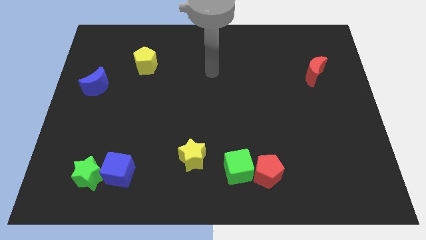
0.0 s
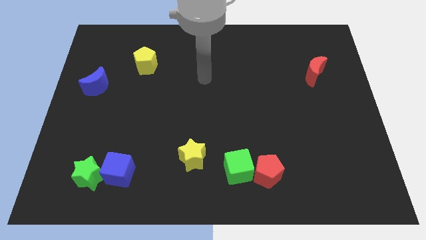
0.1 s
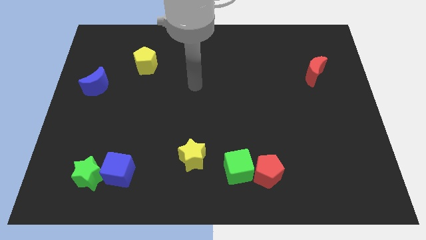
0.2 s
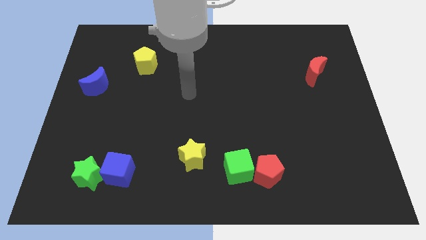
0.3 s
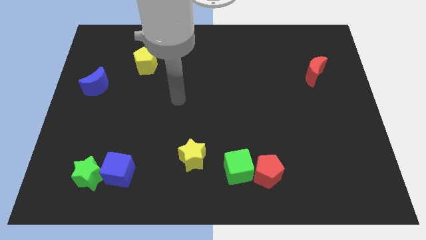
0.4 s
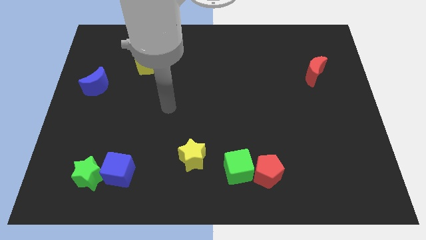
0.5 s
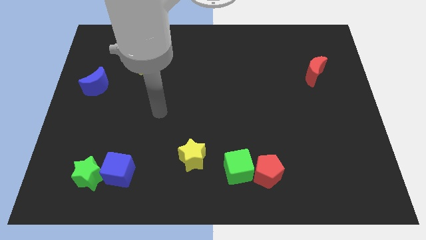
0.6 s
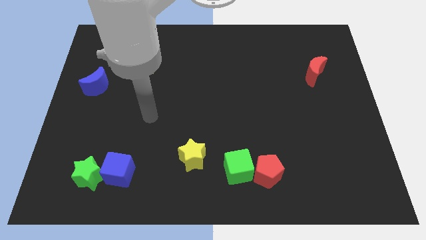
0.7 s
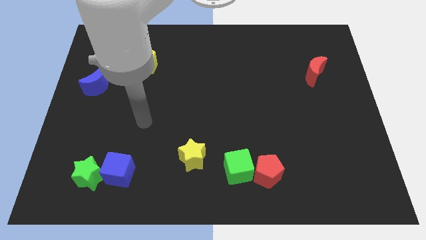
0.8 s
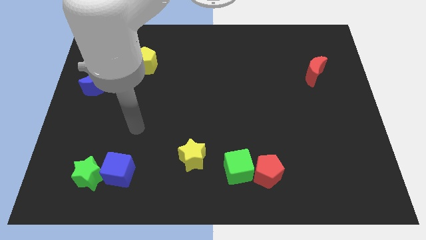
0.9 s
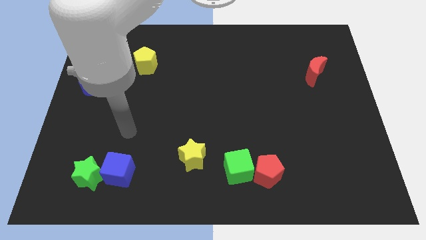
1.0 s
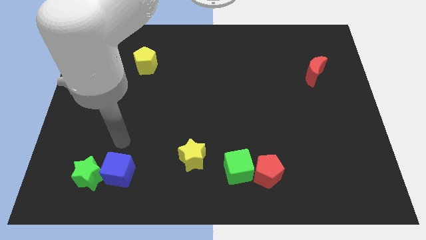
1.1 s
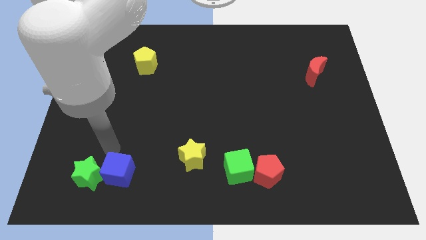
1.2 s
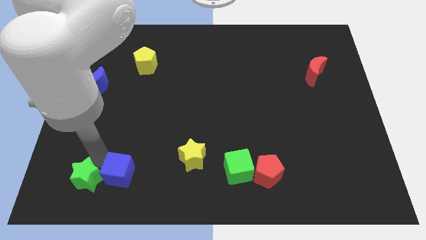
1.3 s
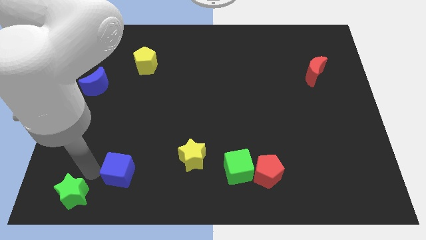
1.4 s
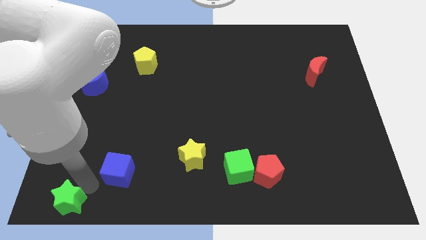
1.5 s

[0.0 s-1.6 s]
separate the blue cube from the green star

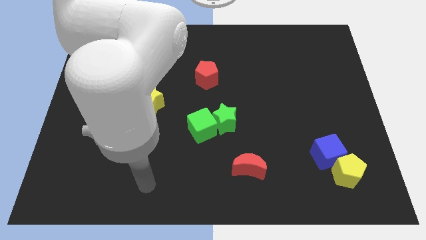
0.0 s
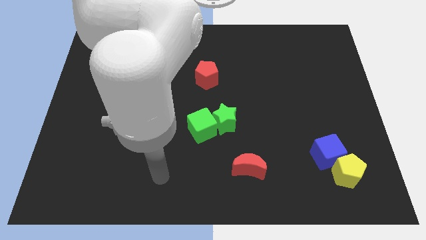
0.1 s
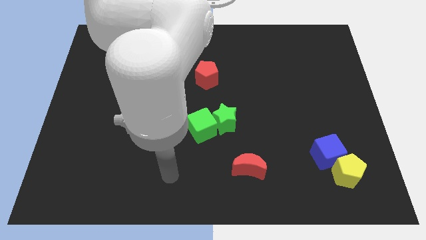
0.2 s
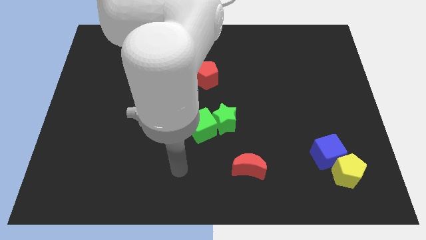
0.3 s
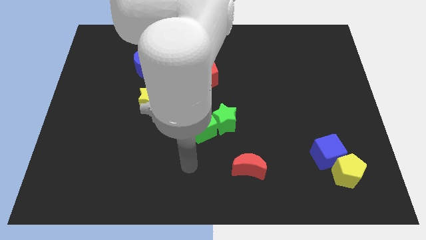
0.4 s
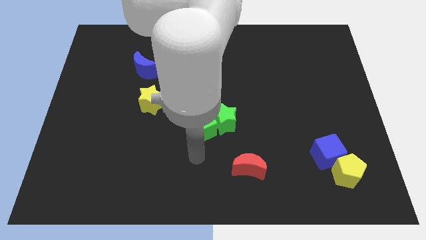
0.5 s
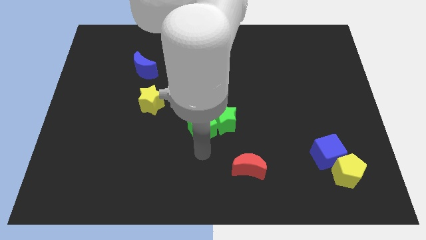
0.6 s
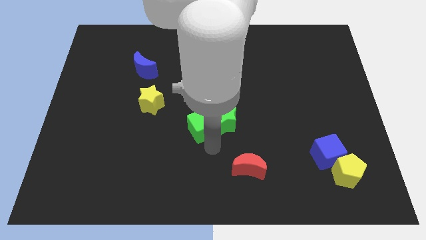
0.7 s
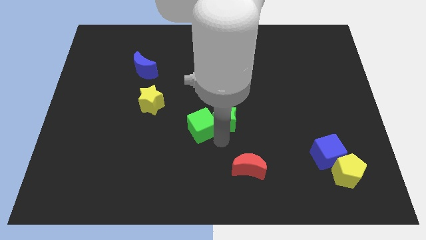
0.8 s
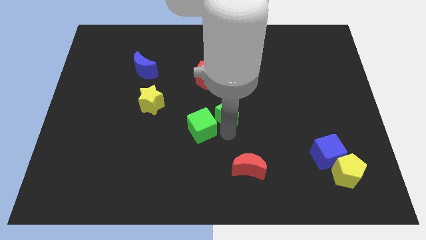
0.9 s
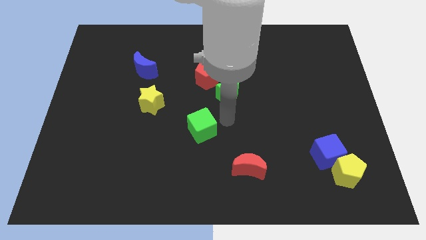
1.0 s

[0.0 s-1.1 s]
pull the green cube apart from the green star

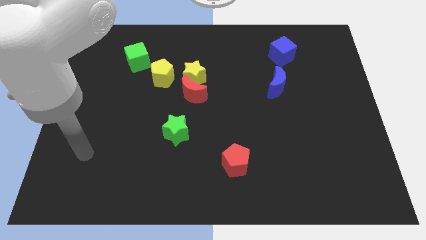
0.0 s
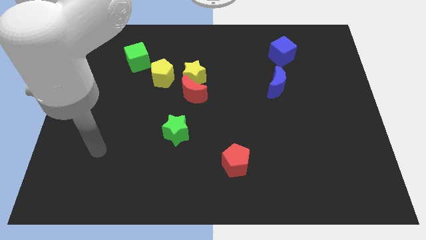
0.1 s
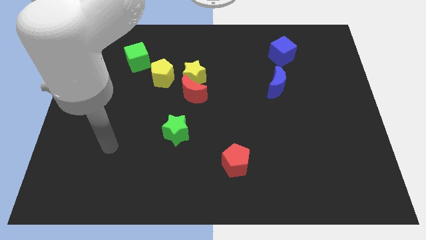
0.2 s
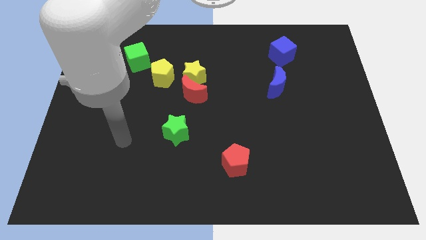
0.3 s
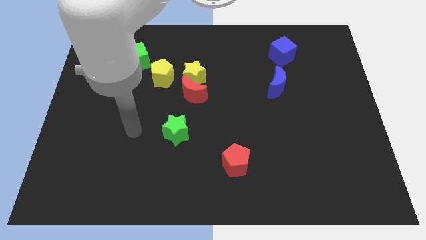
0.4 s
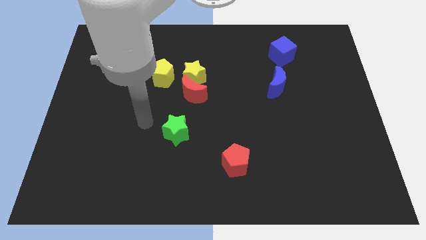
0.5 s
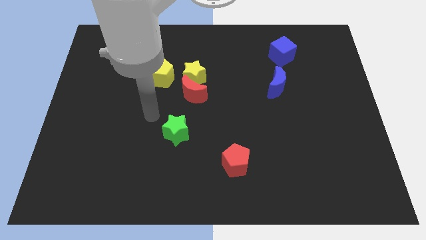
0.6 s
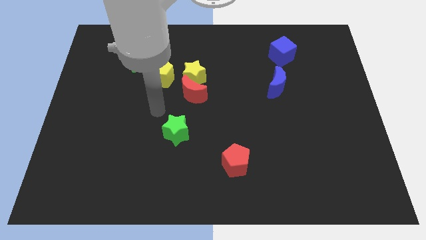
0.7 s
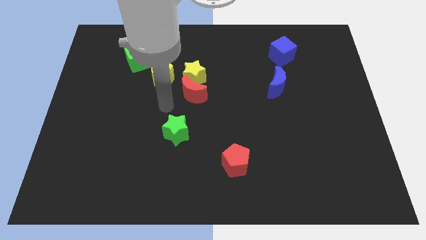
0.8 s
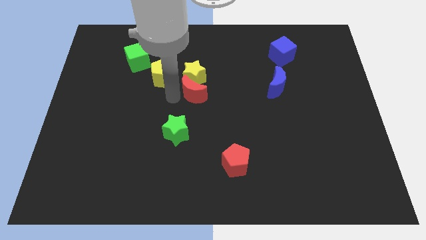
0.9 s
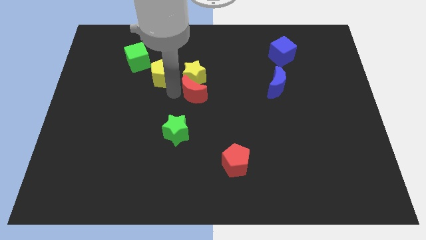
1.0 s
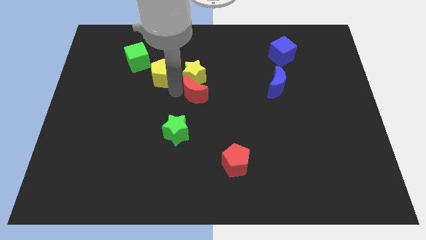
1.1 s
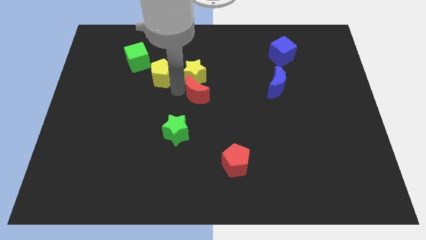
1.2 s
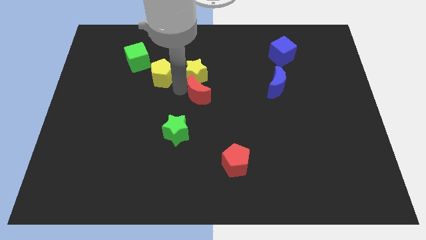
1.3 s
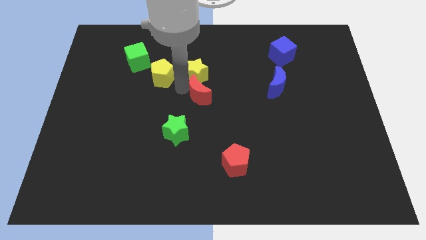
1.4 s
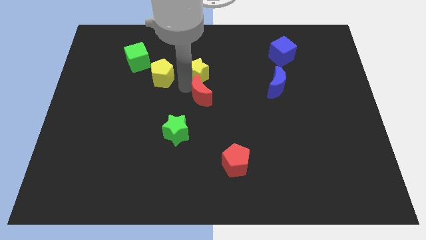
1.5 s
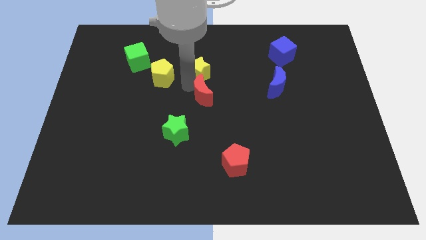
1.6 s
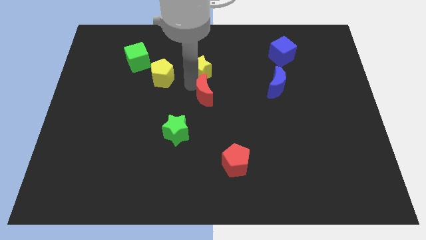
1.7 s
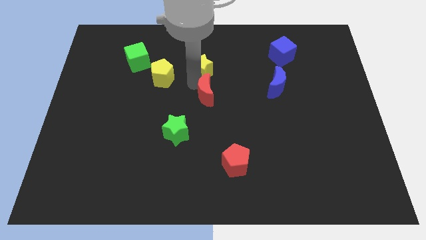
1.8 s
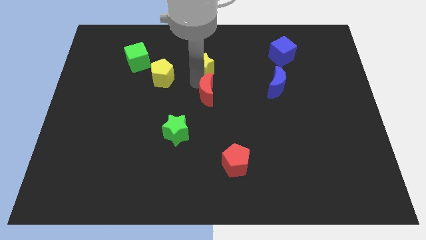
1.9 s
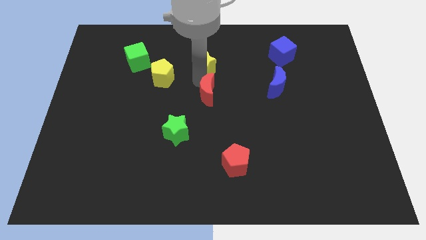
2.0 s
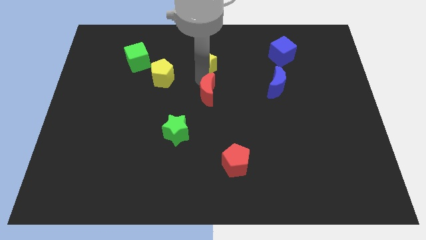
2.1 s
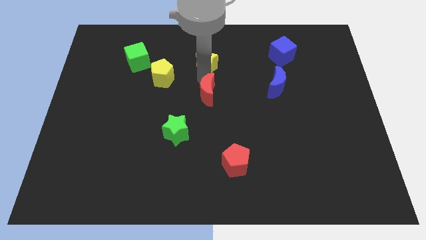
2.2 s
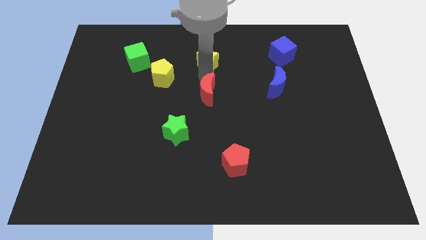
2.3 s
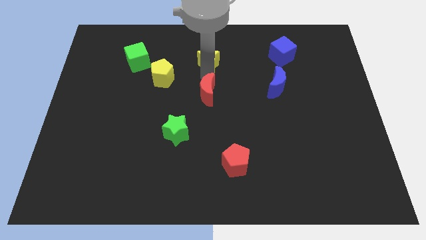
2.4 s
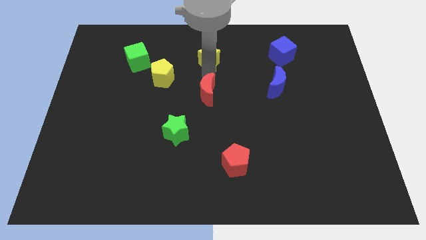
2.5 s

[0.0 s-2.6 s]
separate the yellow star from the red moon and yellow pentagon

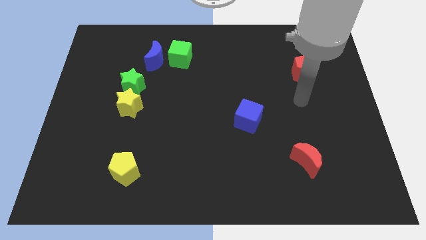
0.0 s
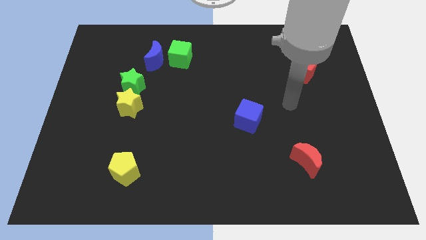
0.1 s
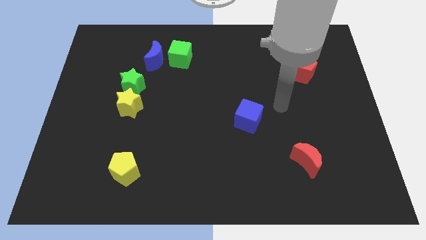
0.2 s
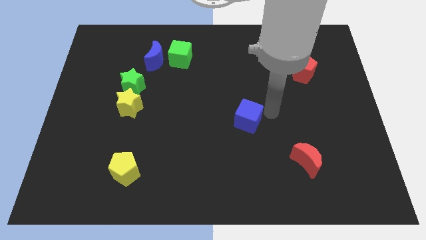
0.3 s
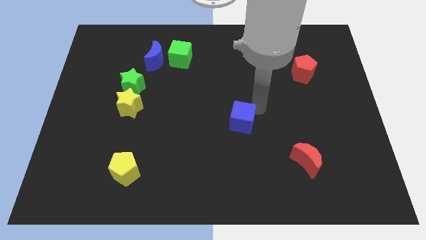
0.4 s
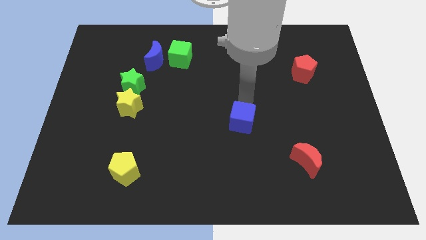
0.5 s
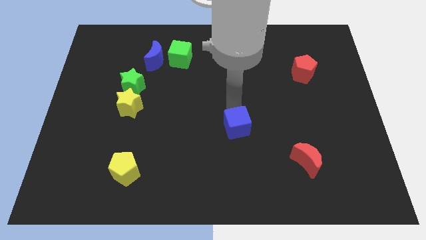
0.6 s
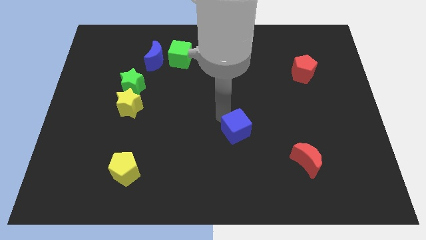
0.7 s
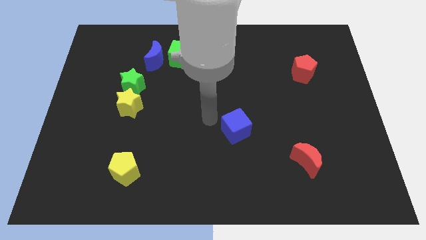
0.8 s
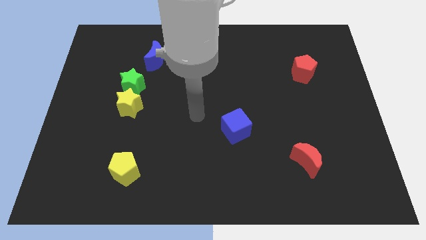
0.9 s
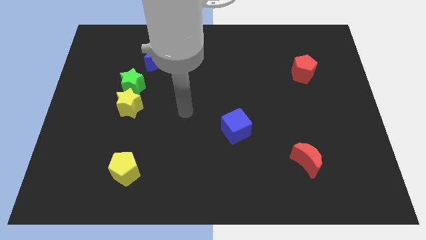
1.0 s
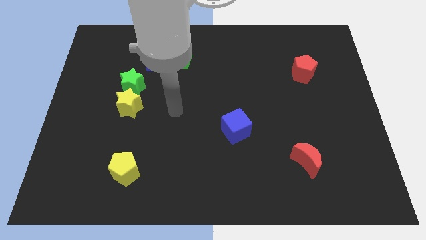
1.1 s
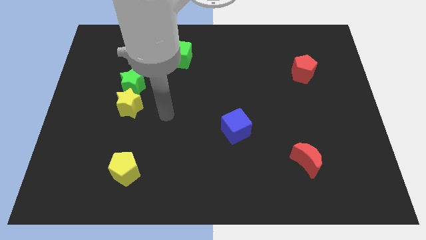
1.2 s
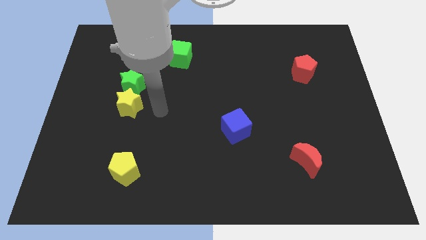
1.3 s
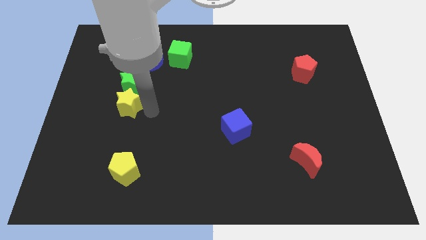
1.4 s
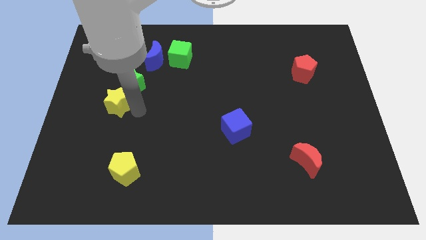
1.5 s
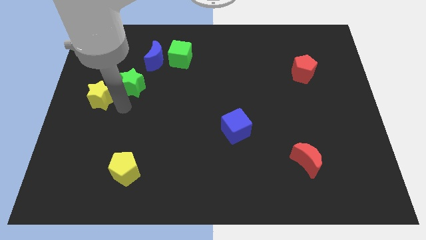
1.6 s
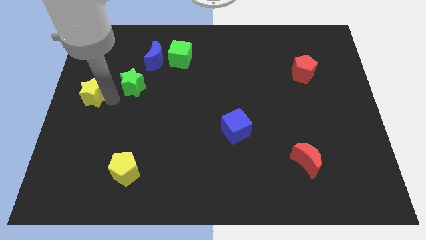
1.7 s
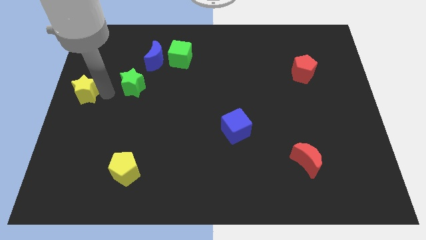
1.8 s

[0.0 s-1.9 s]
pull the green star apart from the yellow star

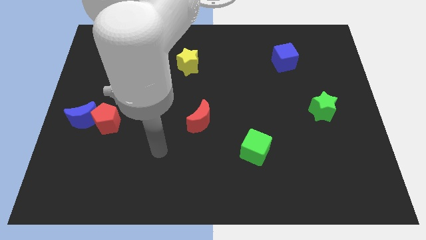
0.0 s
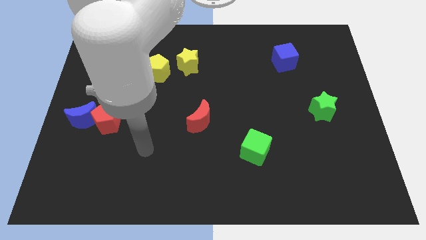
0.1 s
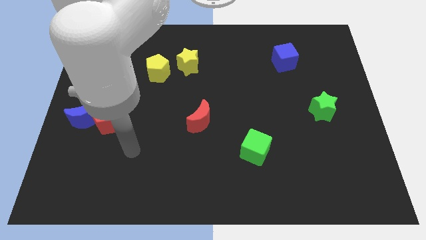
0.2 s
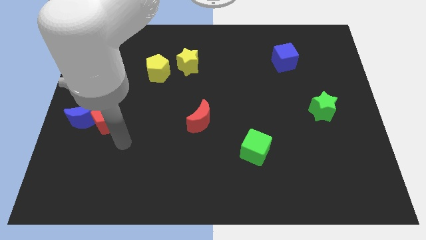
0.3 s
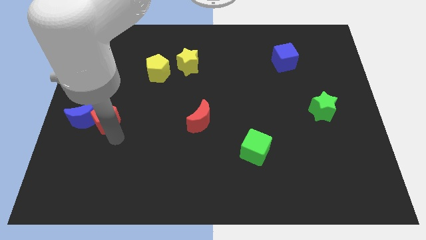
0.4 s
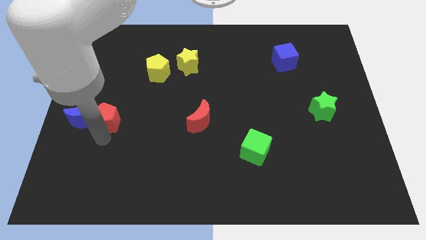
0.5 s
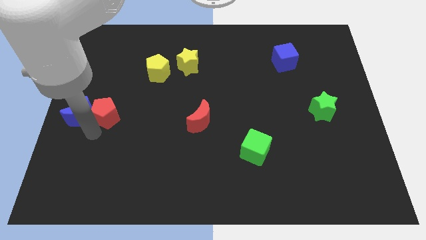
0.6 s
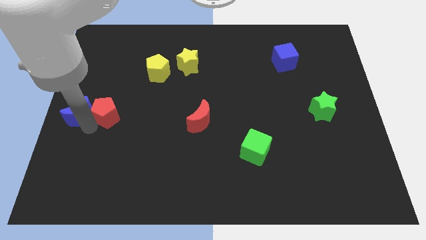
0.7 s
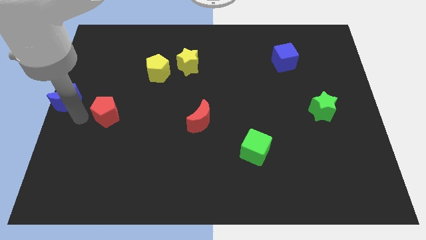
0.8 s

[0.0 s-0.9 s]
move the red pentagon away from the blue moon

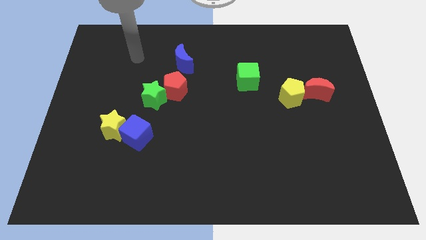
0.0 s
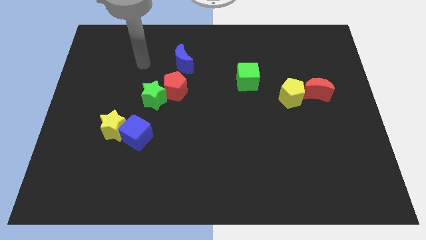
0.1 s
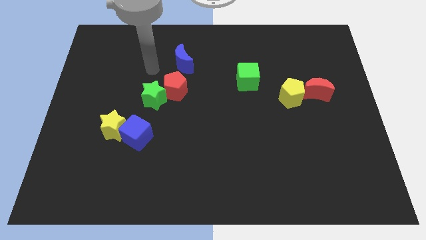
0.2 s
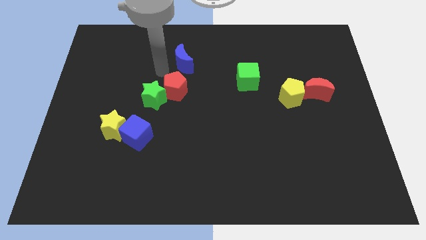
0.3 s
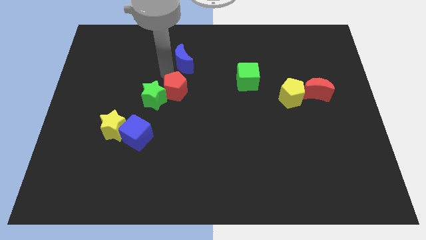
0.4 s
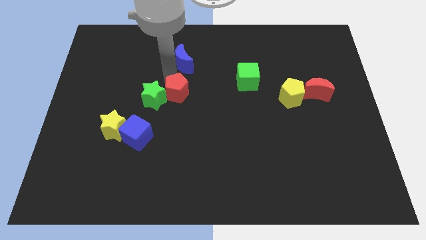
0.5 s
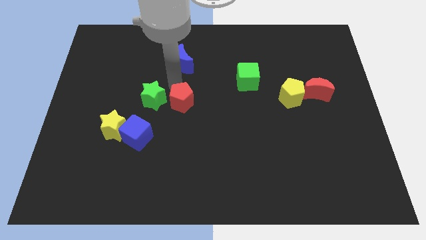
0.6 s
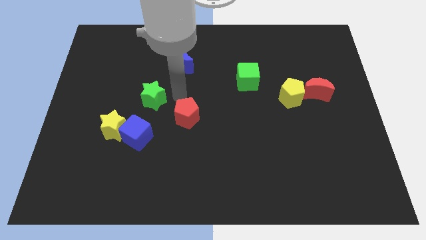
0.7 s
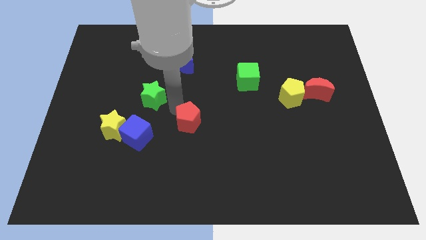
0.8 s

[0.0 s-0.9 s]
pull the green star apart from the red pentagon

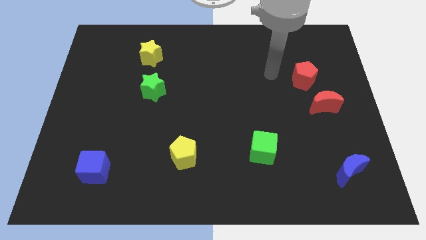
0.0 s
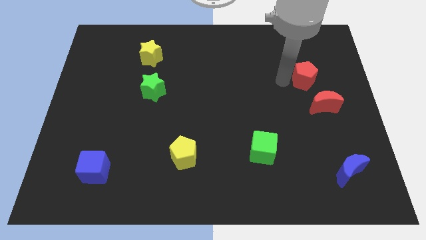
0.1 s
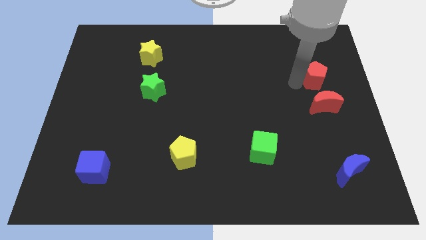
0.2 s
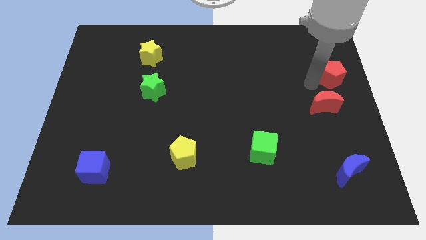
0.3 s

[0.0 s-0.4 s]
pull the red moon apart from the red pentagon
